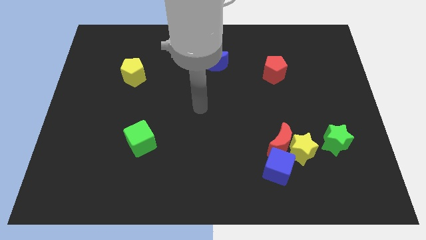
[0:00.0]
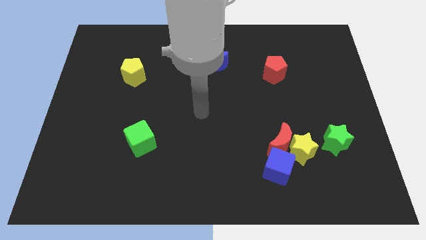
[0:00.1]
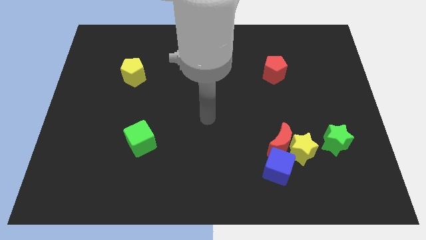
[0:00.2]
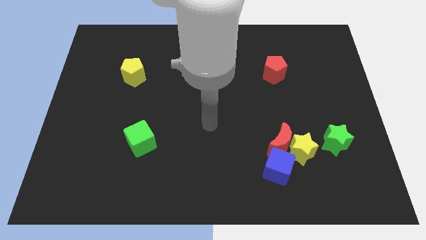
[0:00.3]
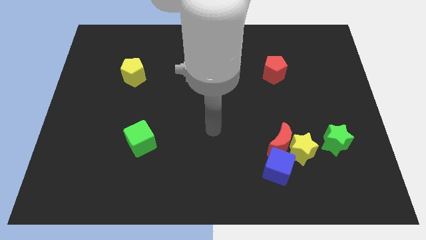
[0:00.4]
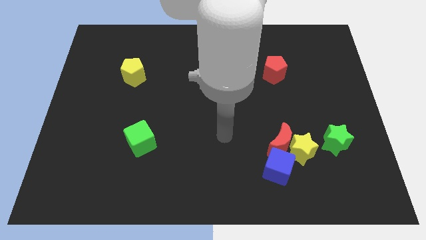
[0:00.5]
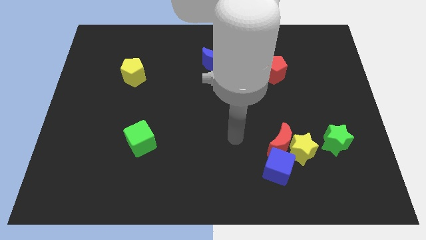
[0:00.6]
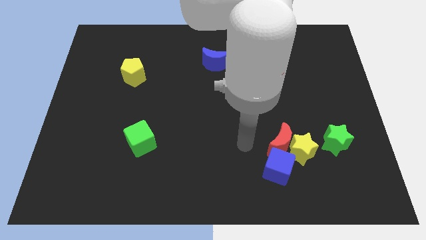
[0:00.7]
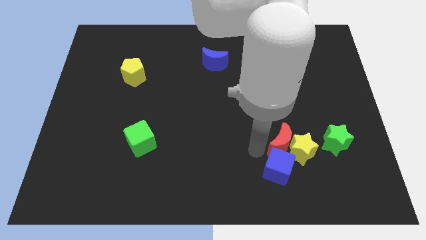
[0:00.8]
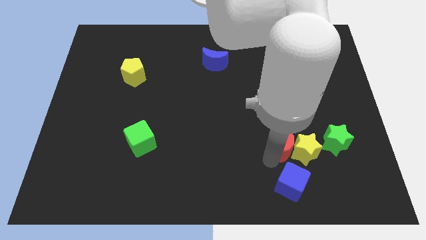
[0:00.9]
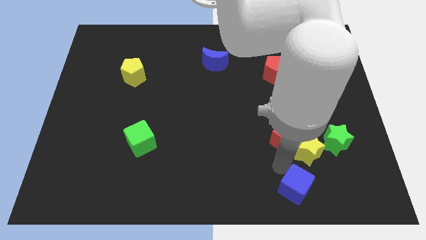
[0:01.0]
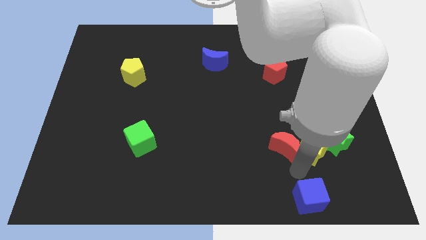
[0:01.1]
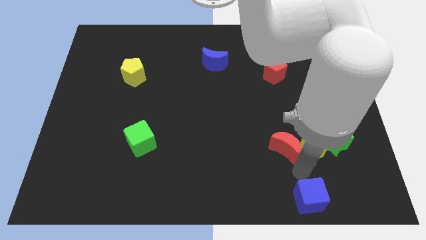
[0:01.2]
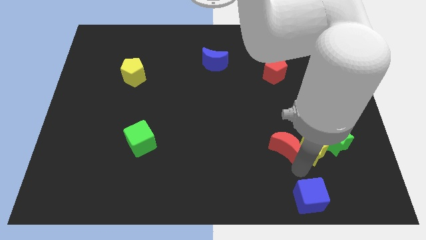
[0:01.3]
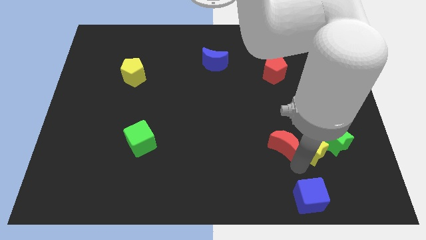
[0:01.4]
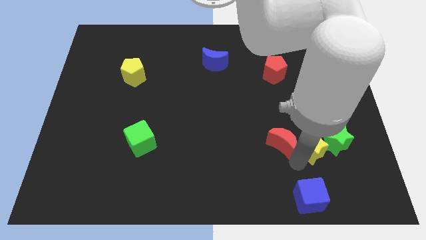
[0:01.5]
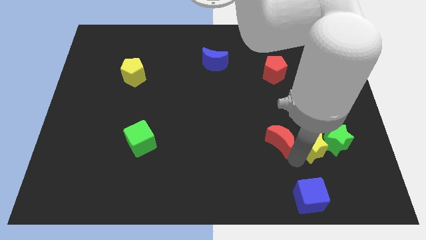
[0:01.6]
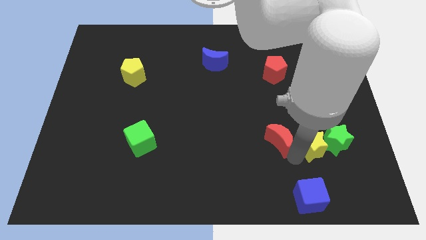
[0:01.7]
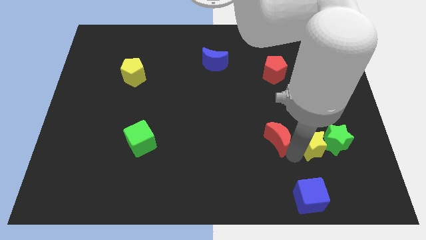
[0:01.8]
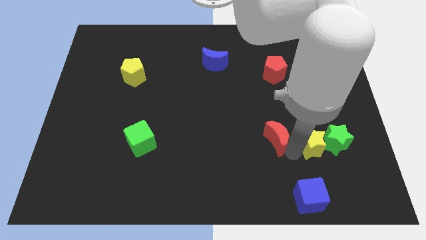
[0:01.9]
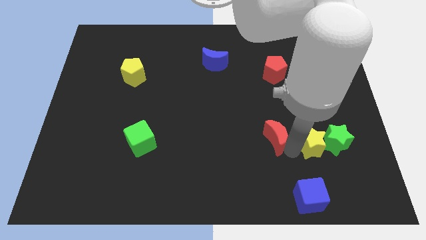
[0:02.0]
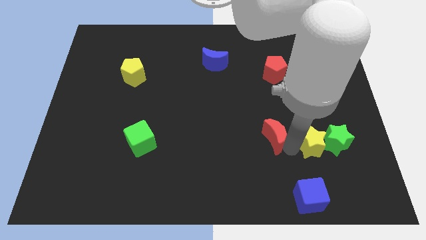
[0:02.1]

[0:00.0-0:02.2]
move the red moon away from the yellow star and blue cube

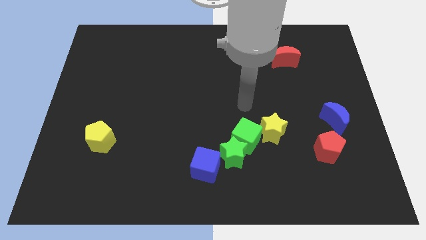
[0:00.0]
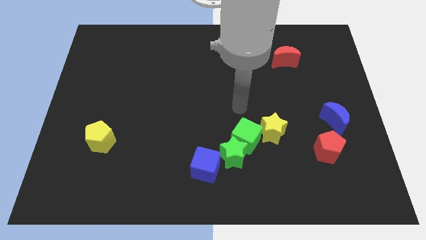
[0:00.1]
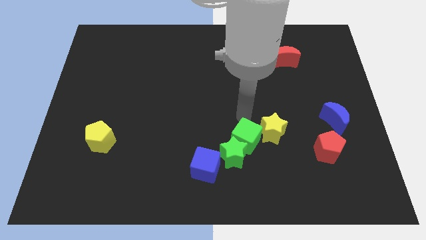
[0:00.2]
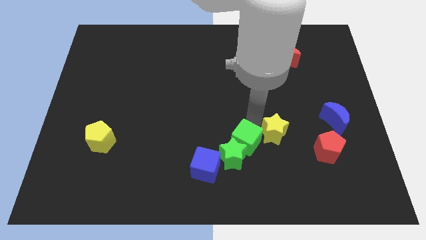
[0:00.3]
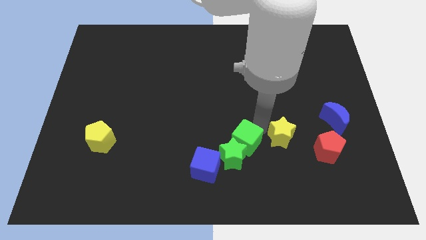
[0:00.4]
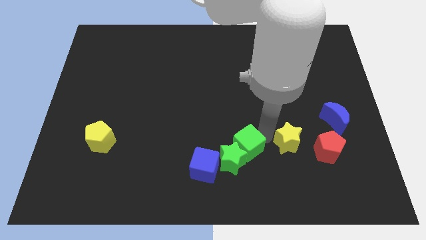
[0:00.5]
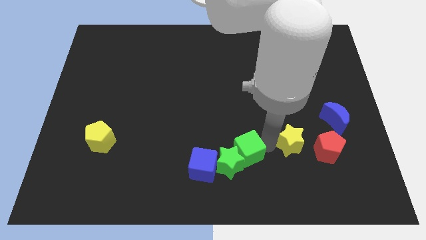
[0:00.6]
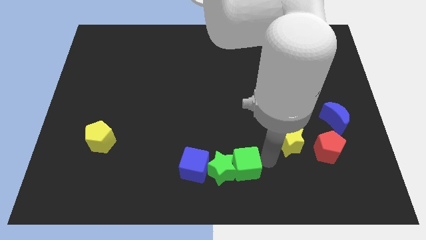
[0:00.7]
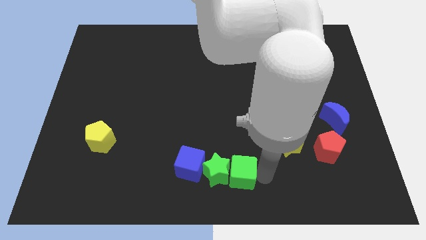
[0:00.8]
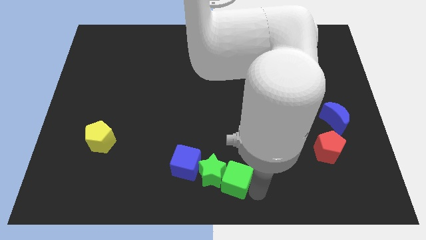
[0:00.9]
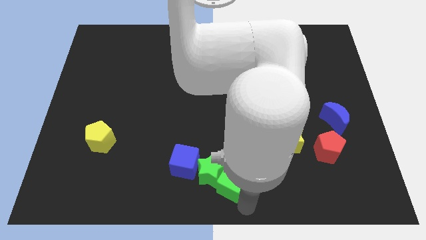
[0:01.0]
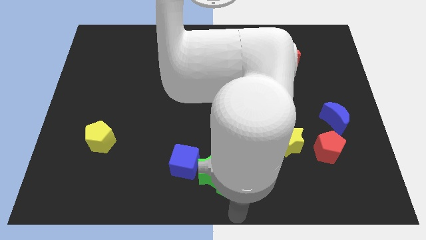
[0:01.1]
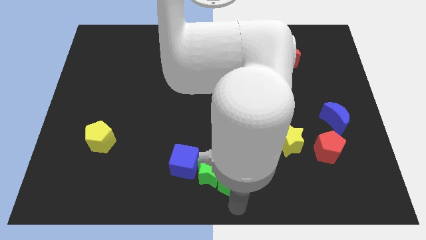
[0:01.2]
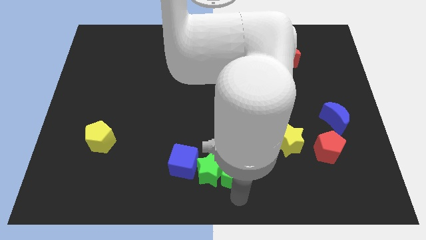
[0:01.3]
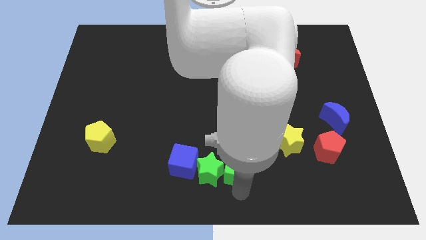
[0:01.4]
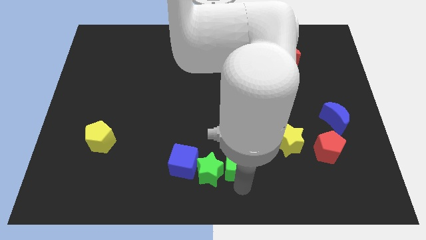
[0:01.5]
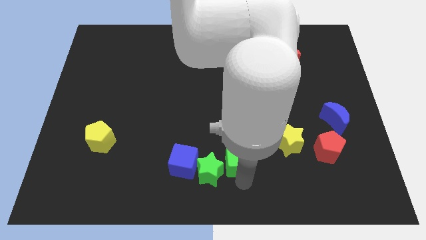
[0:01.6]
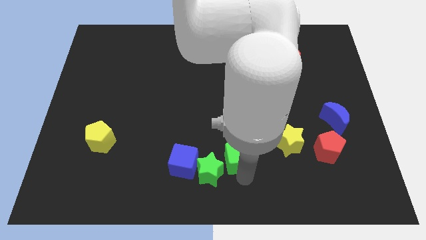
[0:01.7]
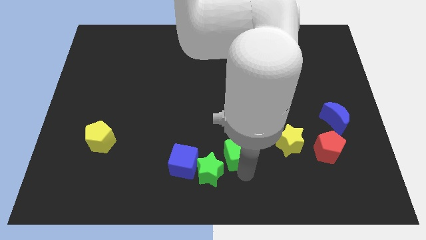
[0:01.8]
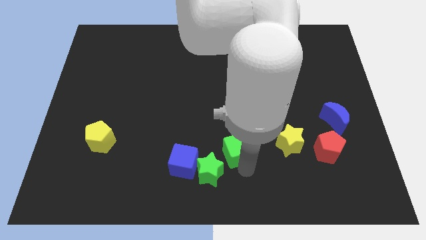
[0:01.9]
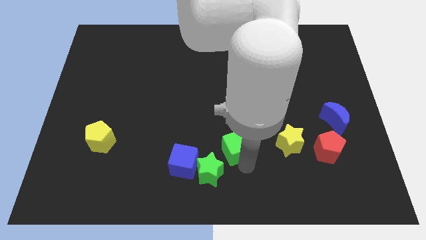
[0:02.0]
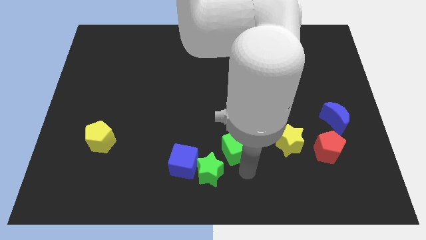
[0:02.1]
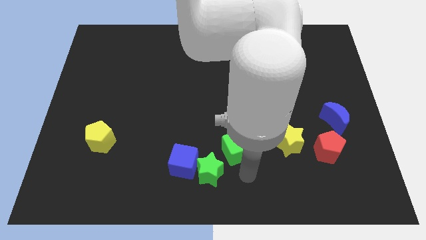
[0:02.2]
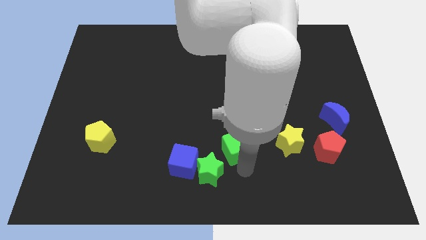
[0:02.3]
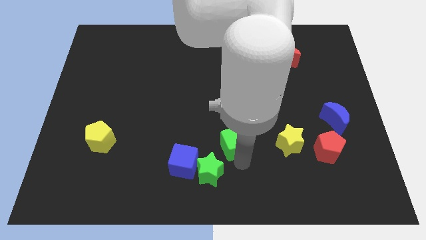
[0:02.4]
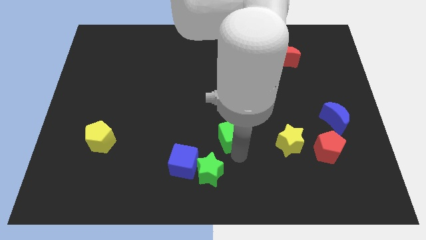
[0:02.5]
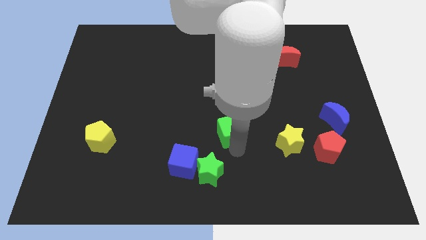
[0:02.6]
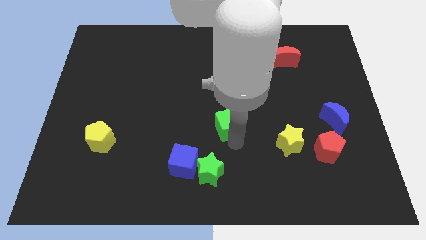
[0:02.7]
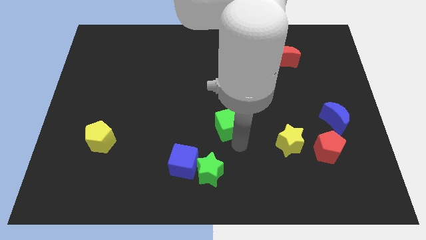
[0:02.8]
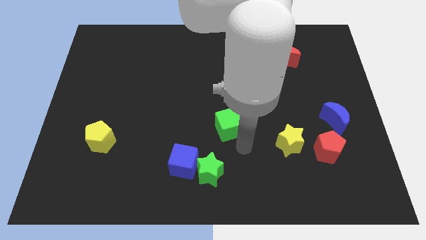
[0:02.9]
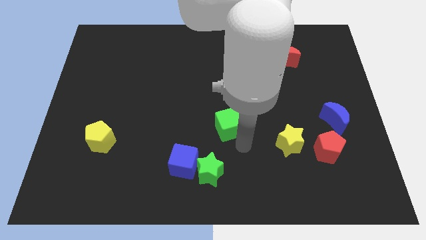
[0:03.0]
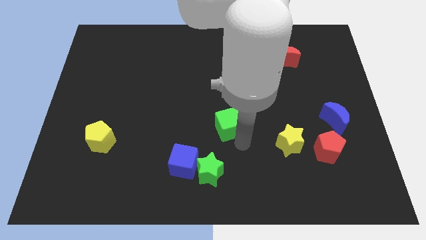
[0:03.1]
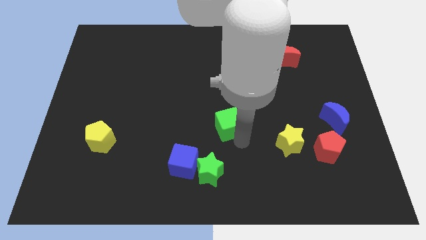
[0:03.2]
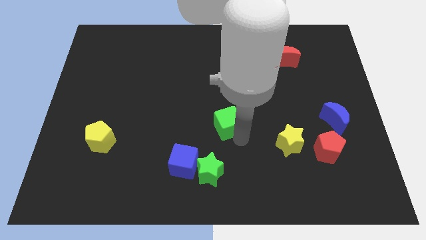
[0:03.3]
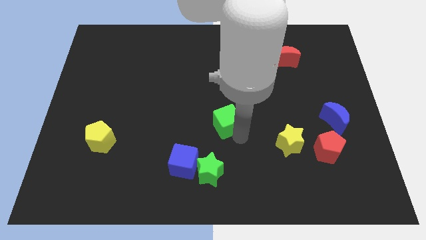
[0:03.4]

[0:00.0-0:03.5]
move the green cube away from the green star and yellow star

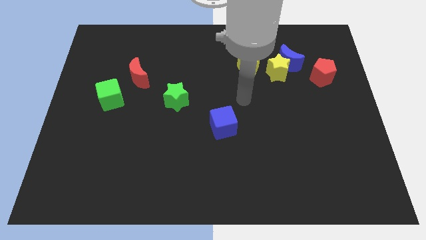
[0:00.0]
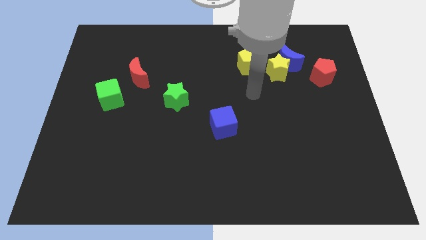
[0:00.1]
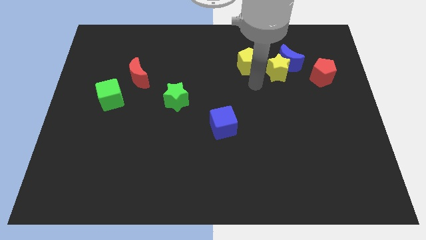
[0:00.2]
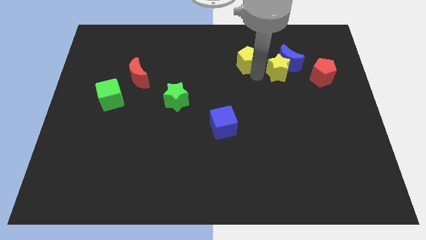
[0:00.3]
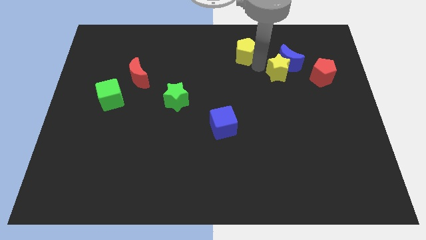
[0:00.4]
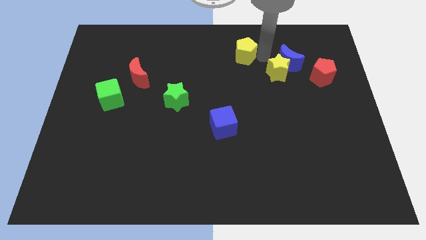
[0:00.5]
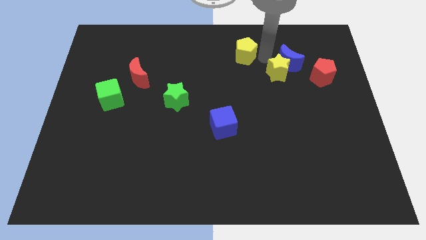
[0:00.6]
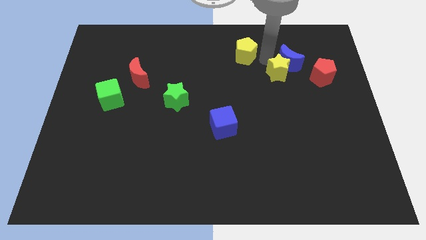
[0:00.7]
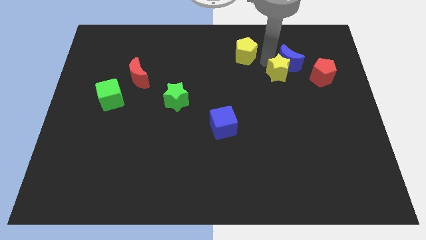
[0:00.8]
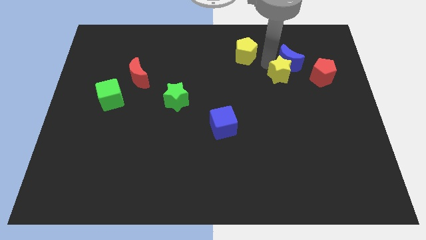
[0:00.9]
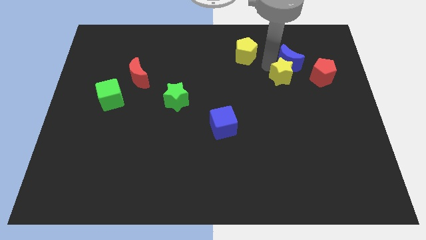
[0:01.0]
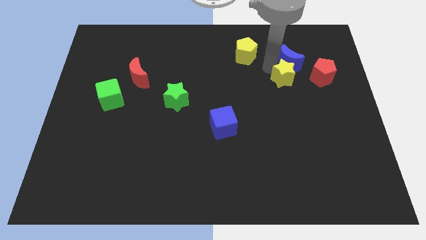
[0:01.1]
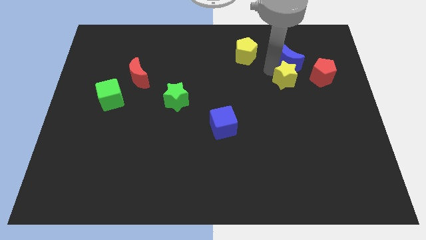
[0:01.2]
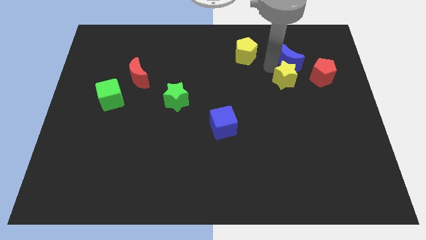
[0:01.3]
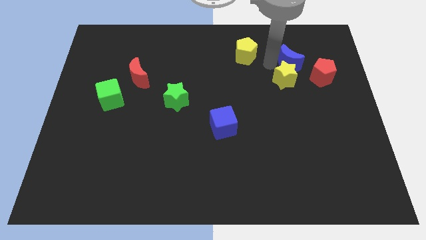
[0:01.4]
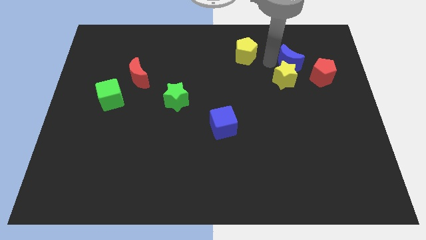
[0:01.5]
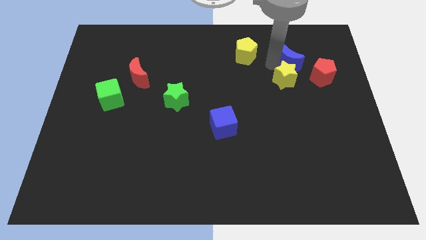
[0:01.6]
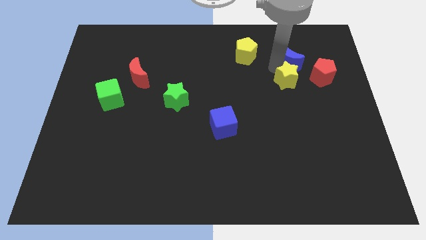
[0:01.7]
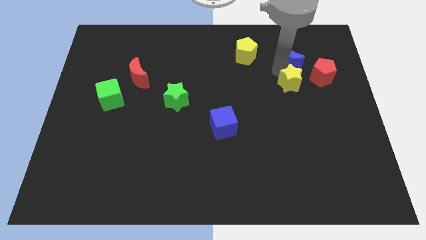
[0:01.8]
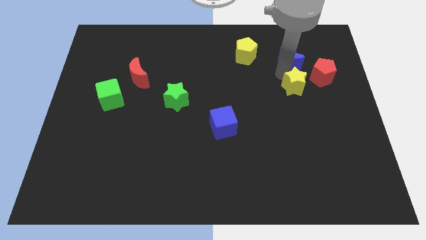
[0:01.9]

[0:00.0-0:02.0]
pull the yellow star apart from the blue moon and yellow pentagon

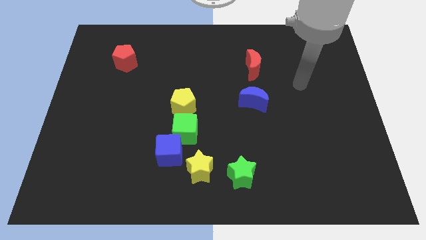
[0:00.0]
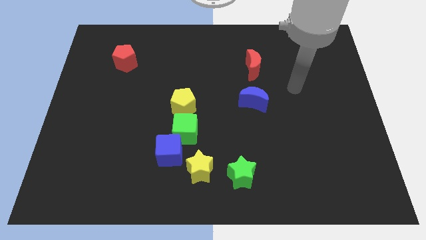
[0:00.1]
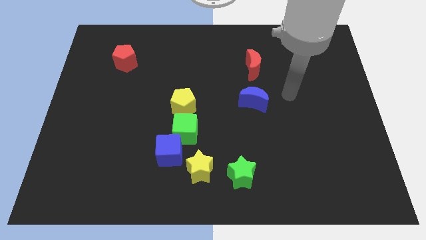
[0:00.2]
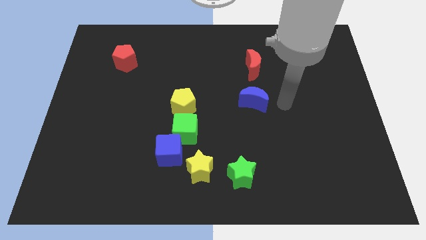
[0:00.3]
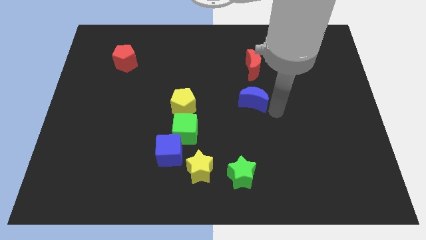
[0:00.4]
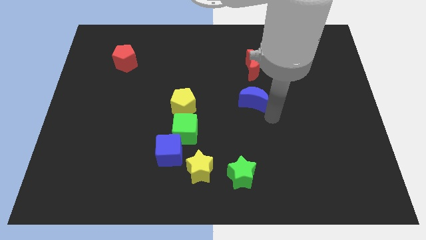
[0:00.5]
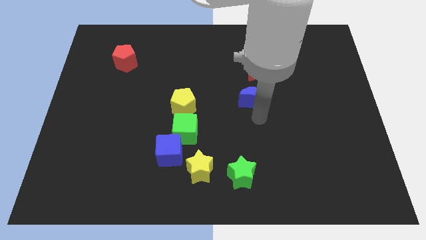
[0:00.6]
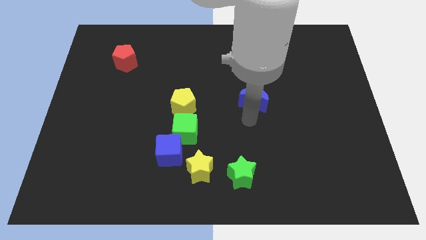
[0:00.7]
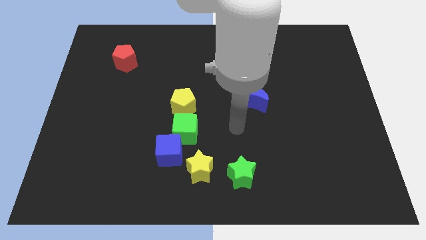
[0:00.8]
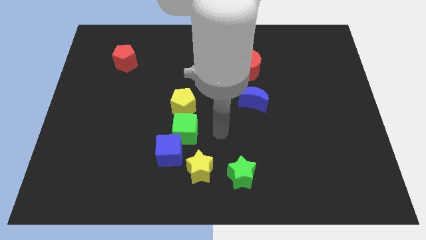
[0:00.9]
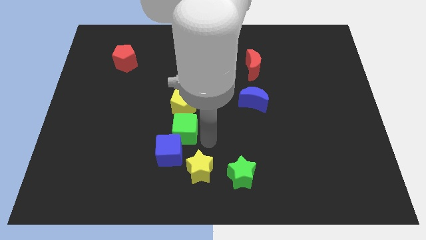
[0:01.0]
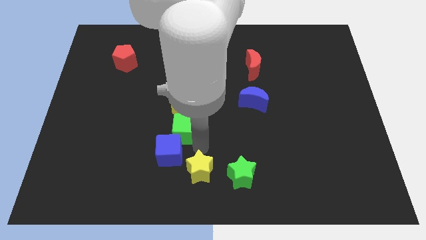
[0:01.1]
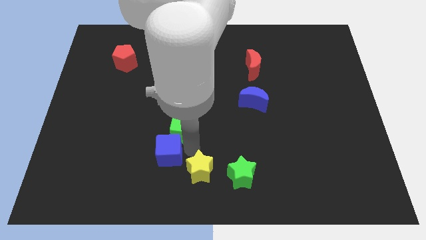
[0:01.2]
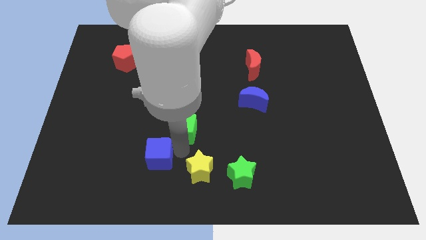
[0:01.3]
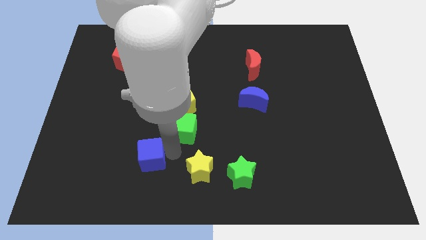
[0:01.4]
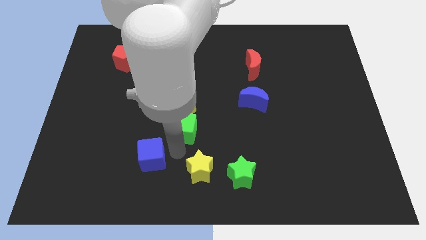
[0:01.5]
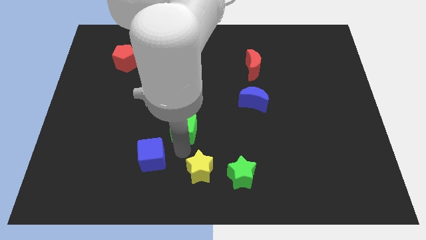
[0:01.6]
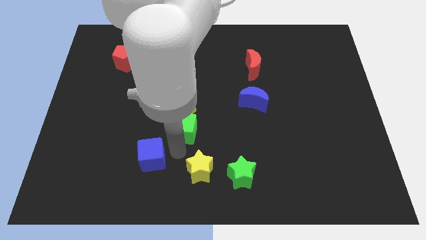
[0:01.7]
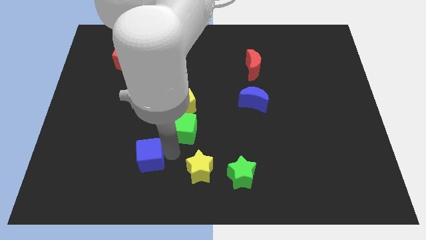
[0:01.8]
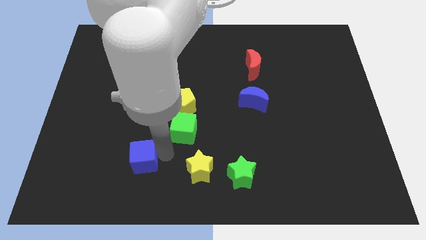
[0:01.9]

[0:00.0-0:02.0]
pull the blue cube apart from the green cube and yellow star
